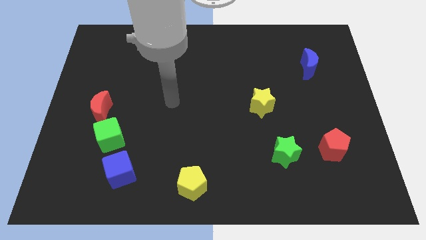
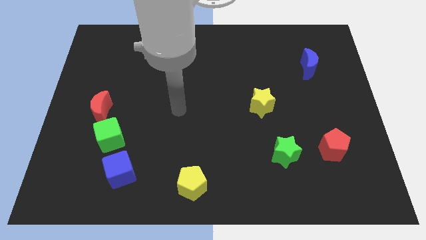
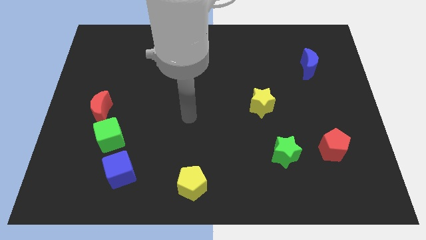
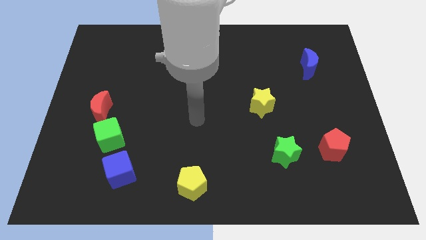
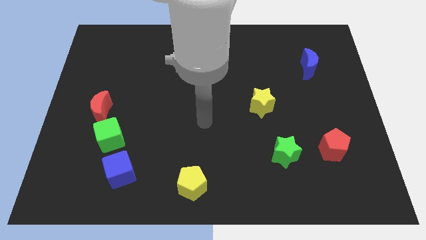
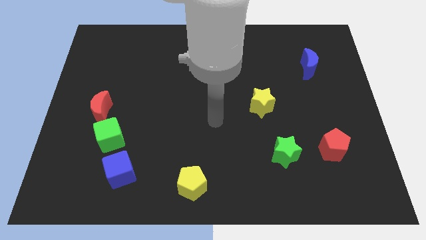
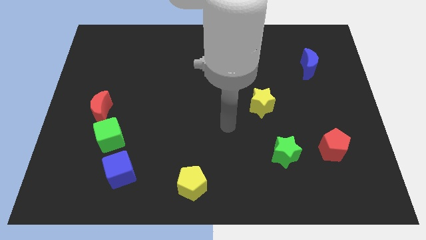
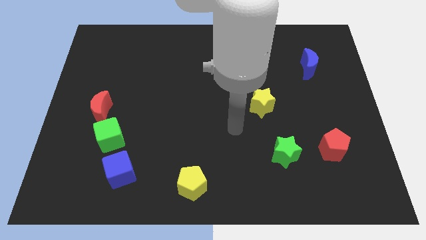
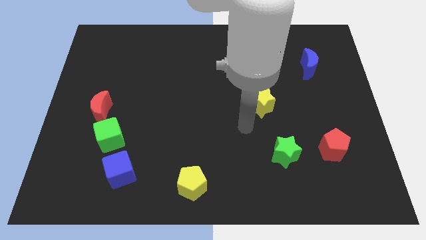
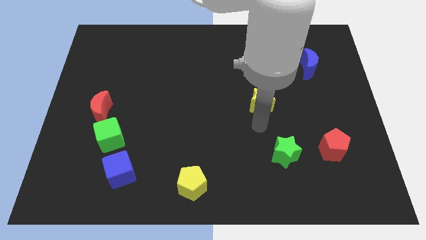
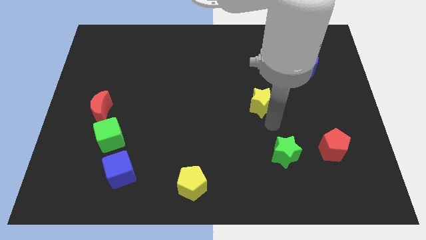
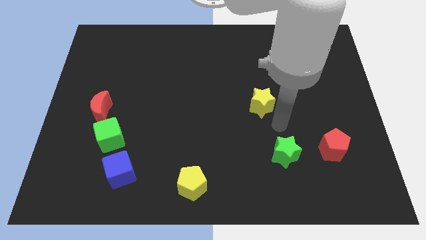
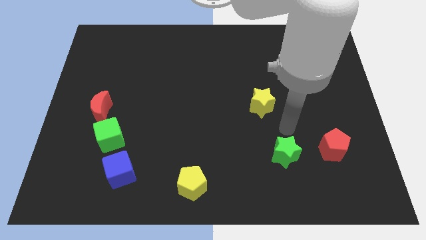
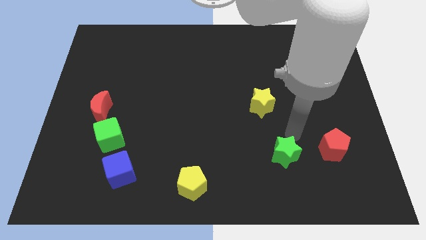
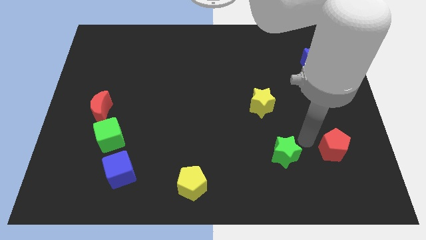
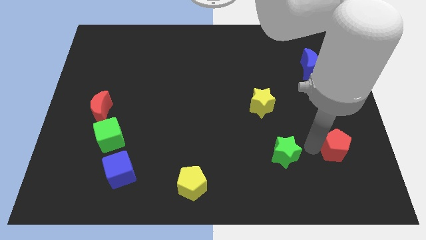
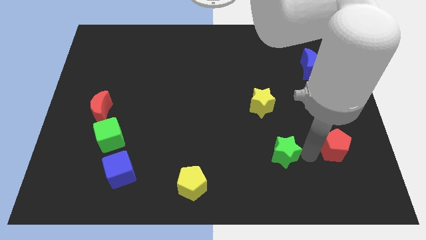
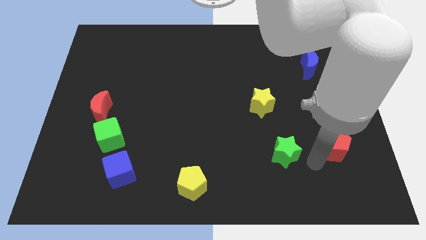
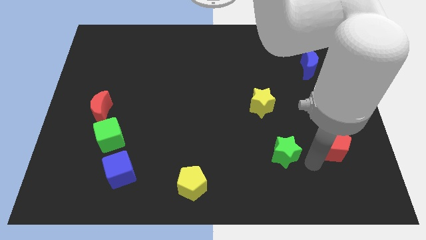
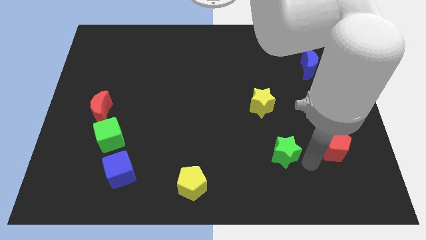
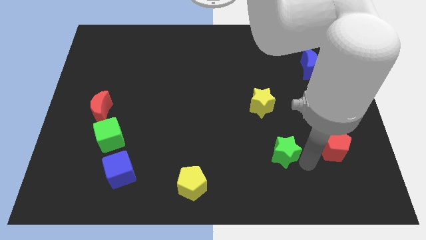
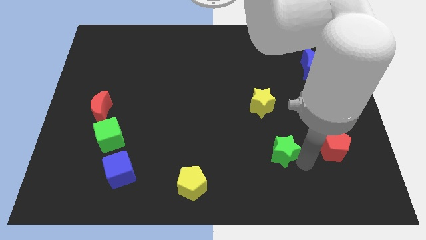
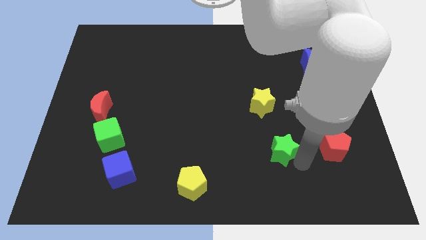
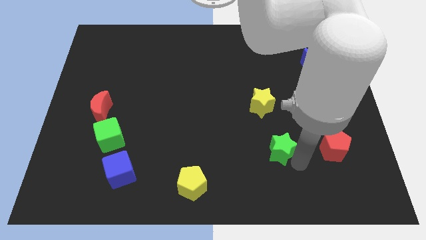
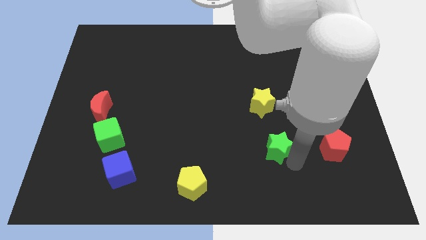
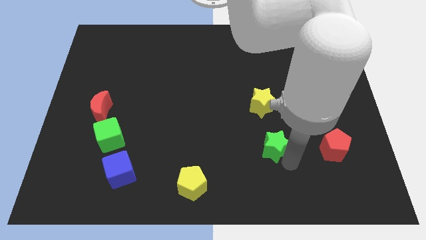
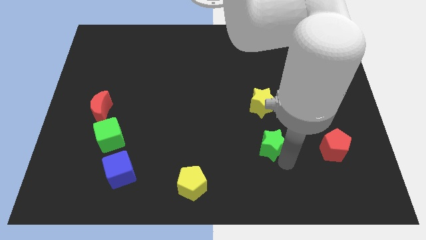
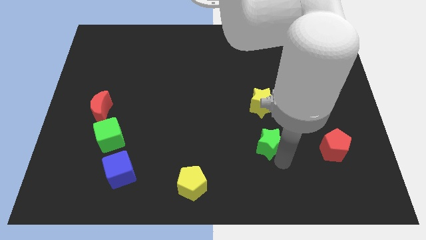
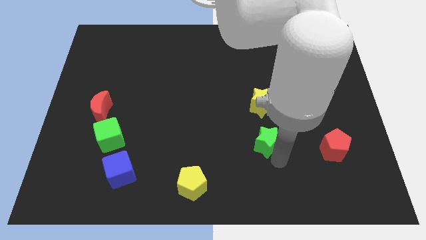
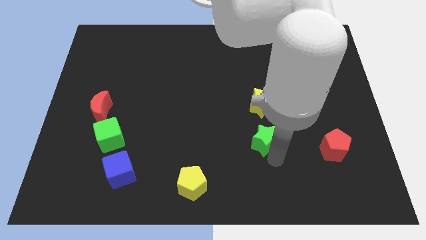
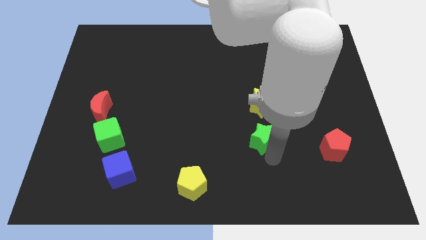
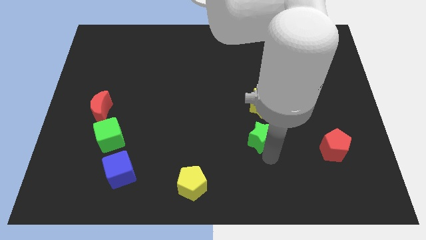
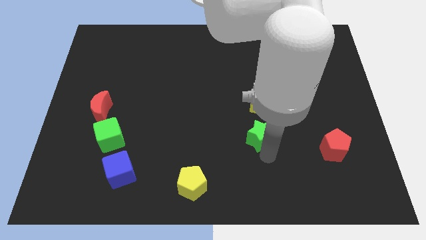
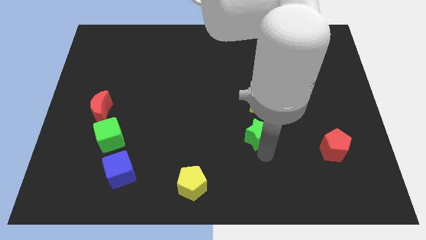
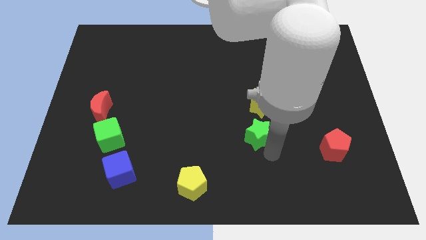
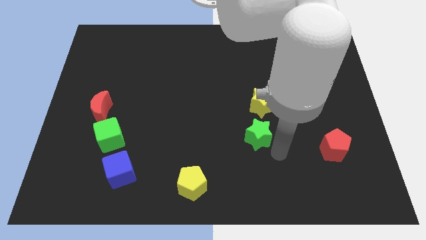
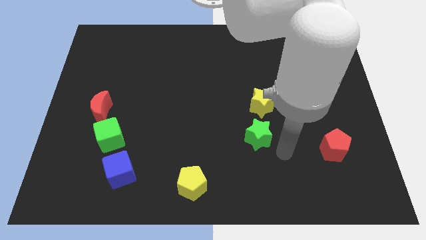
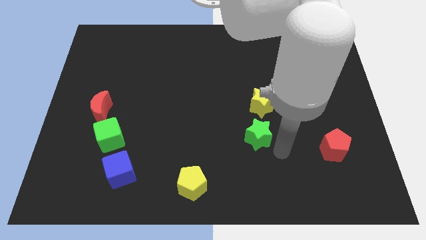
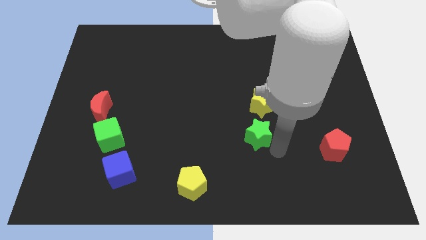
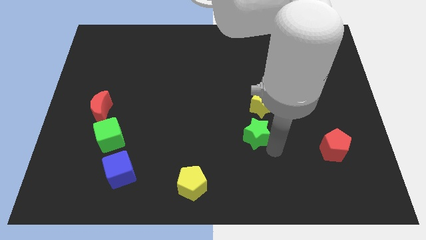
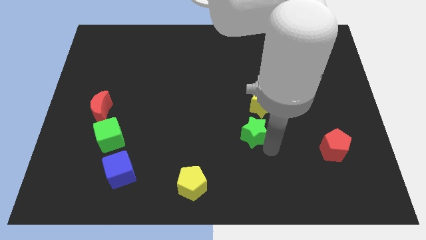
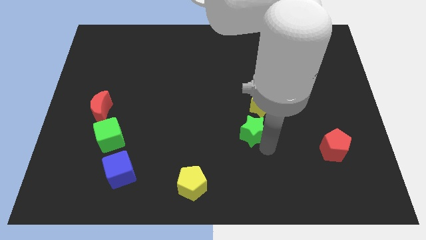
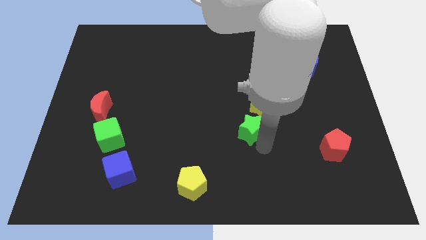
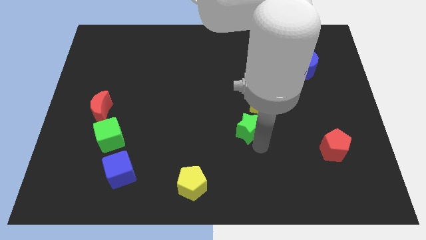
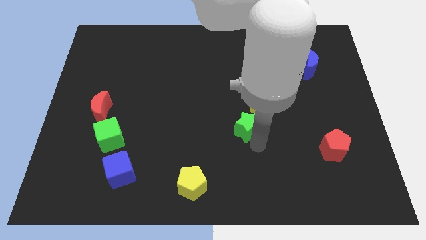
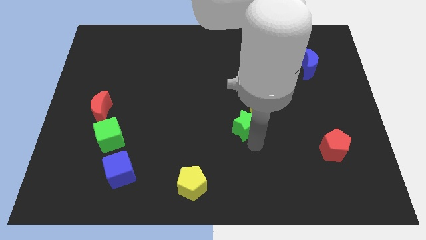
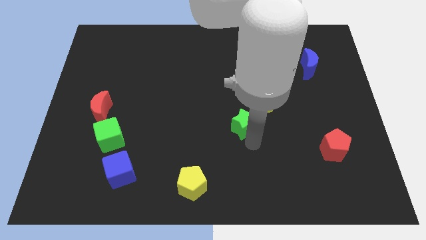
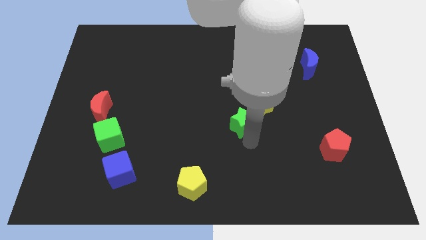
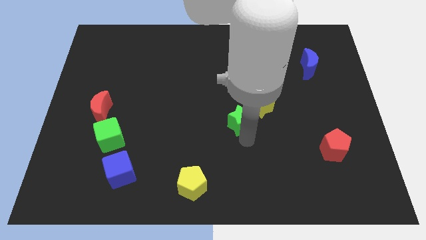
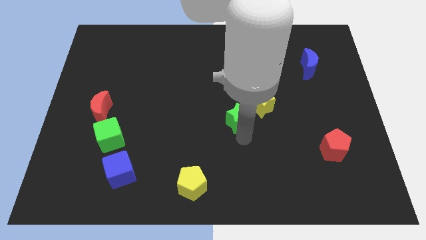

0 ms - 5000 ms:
slide the green star just left of the yellow star

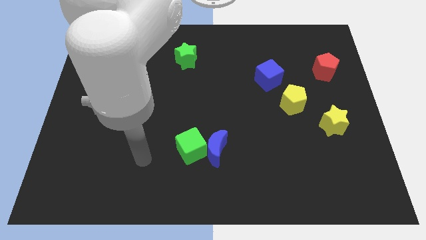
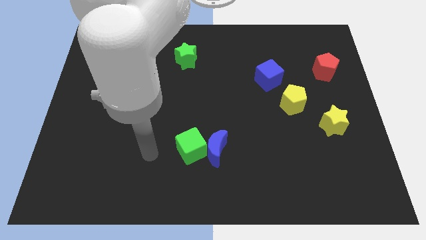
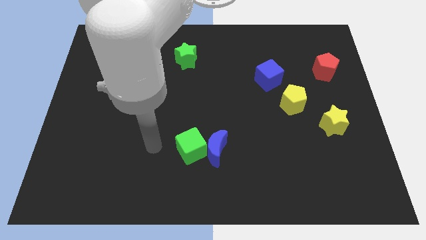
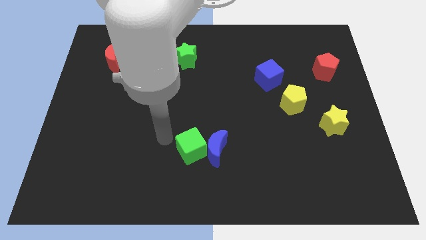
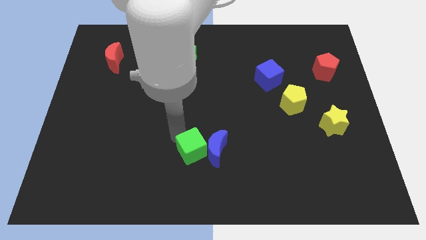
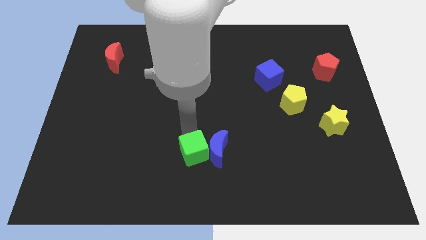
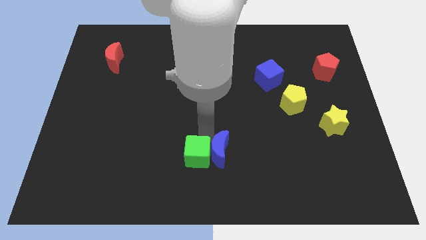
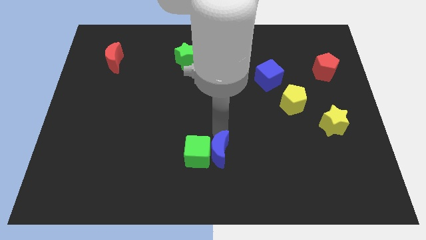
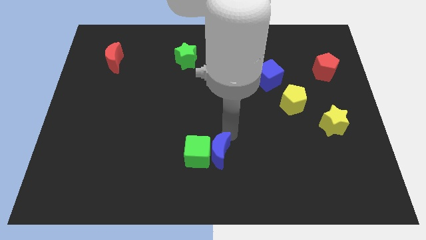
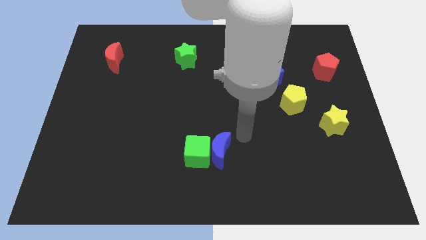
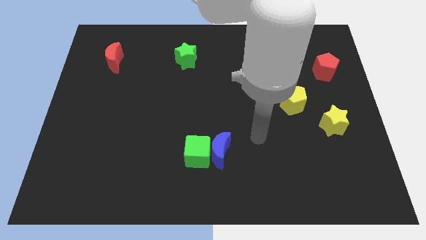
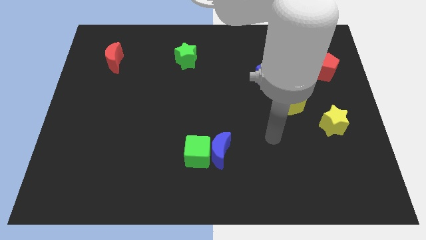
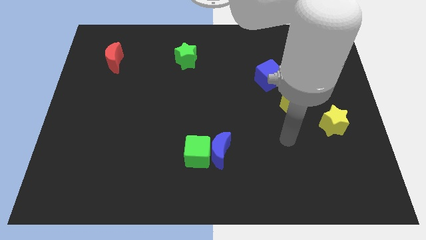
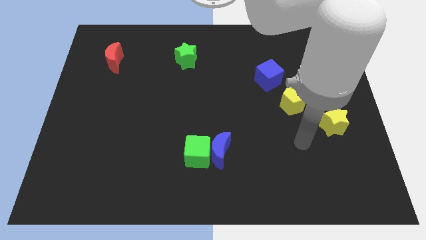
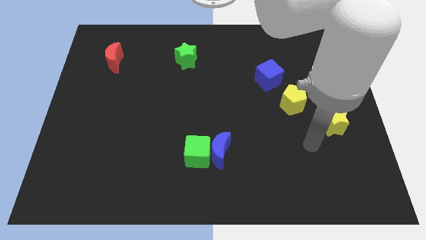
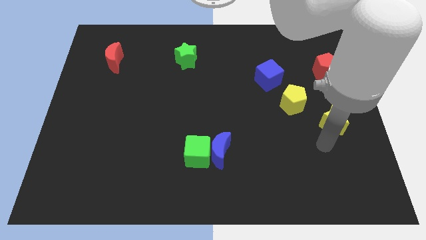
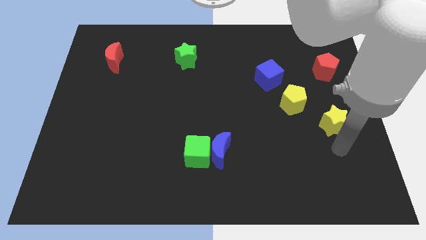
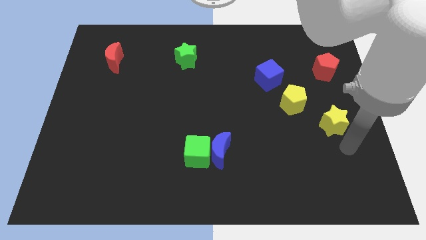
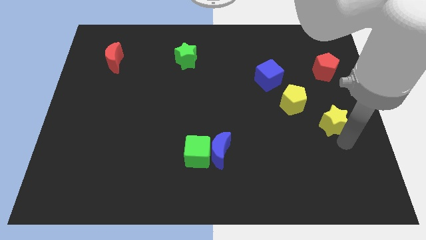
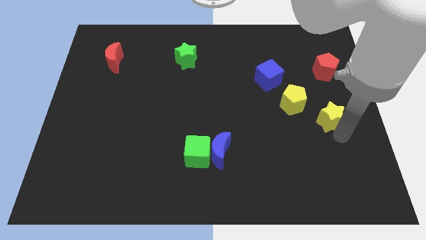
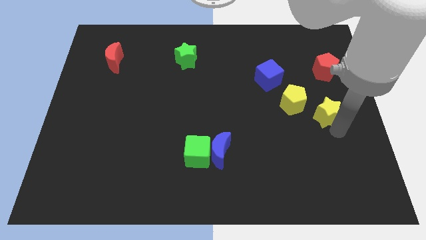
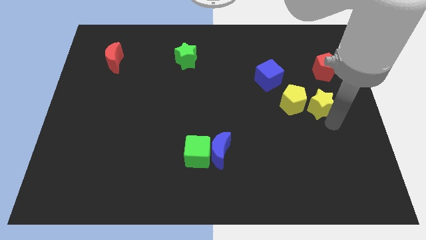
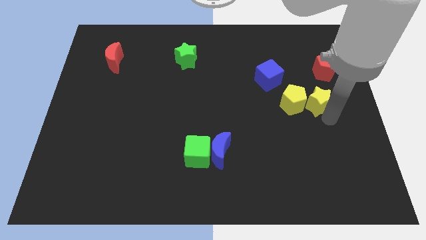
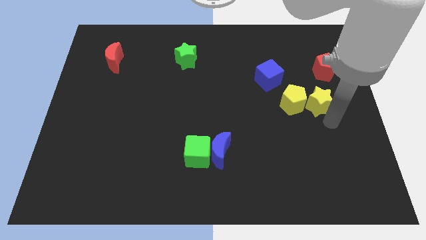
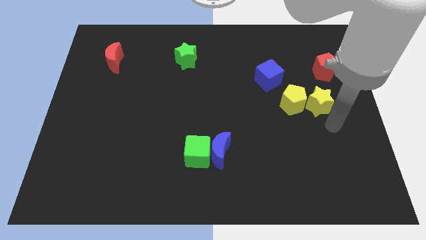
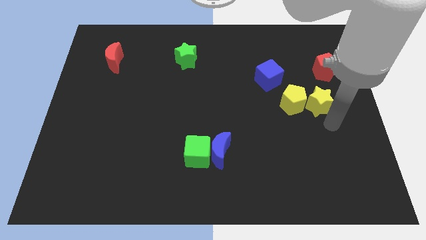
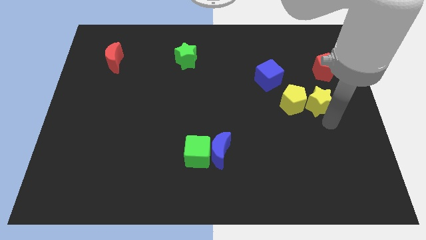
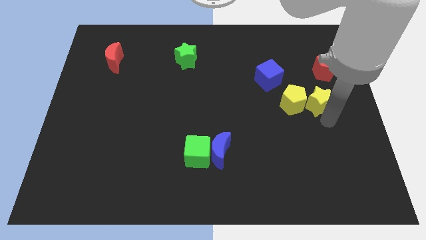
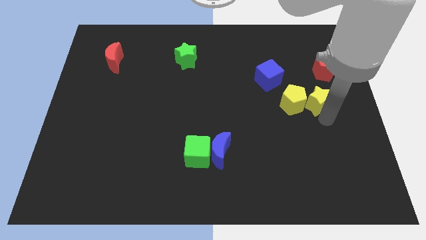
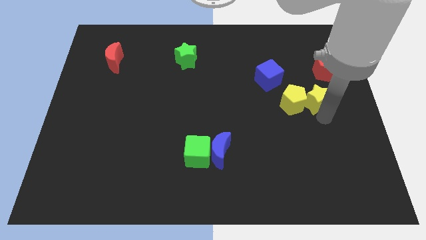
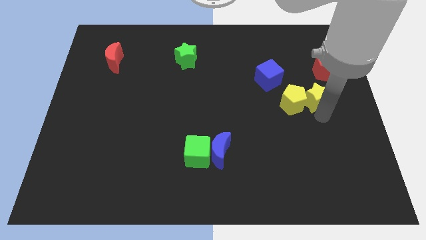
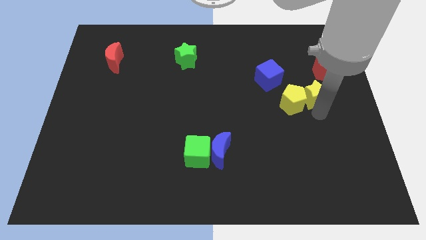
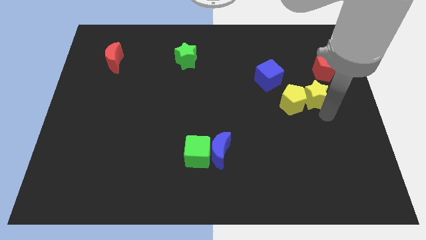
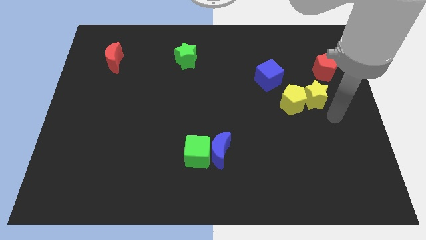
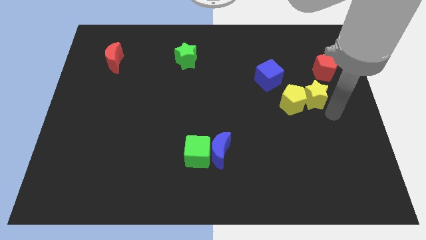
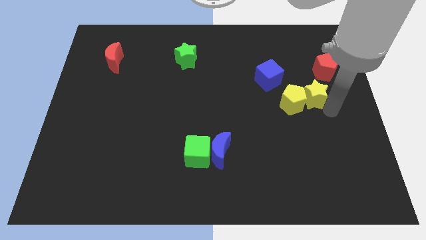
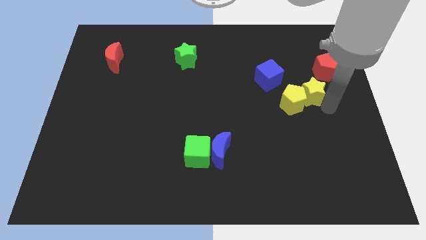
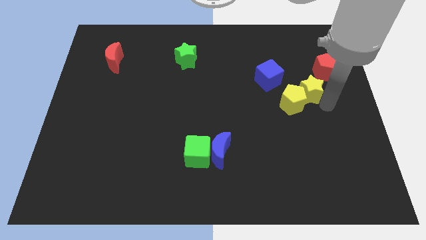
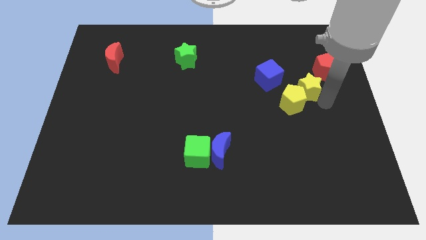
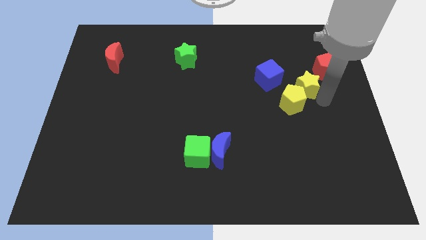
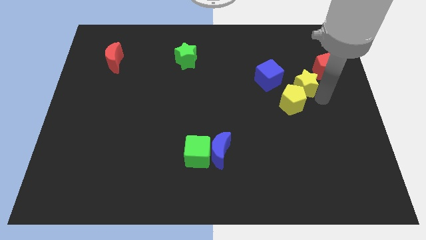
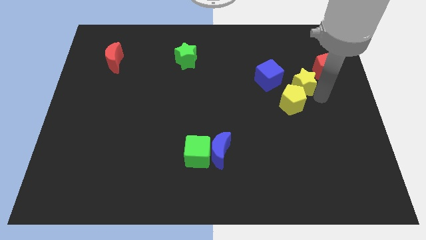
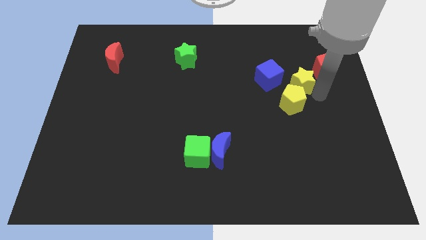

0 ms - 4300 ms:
put the yellow star left of the red pentagon
